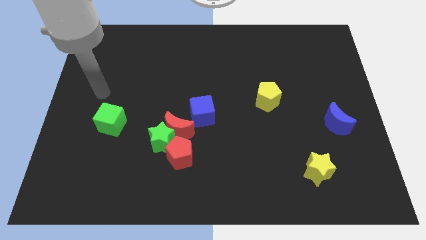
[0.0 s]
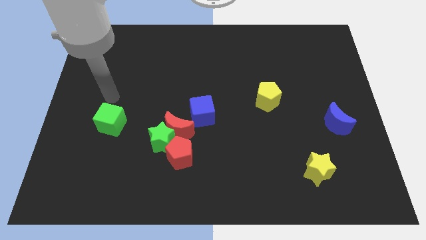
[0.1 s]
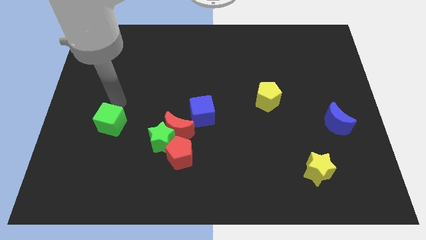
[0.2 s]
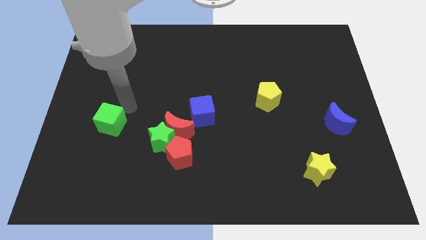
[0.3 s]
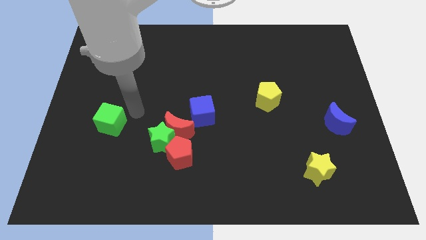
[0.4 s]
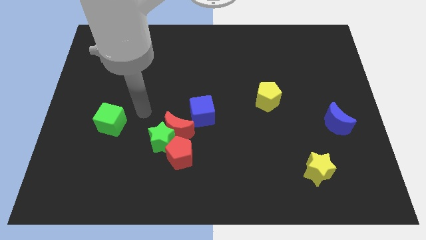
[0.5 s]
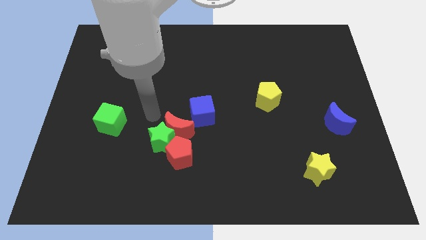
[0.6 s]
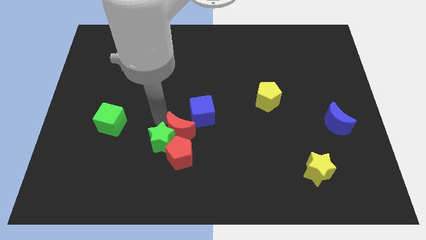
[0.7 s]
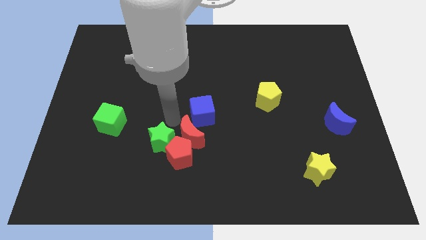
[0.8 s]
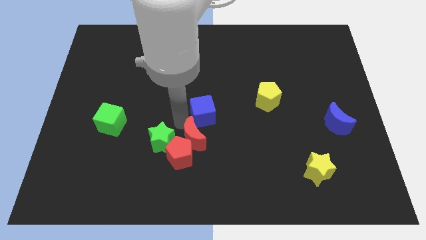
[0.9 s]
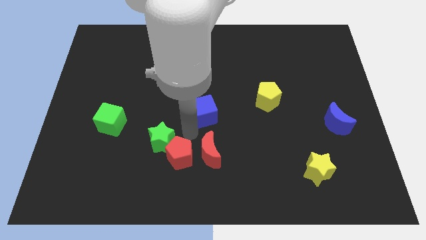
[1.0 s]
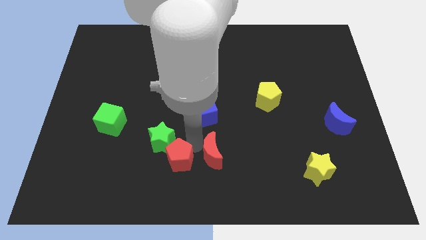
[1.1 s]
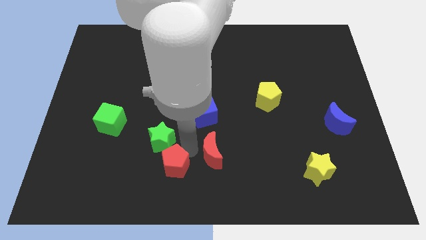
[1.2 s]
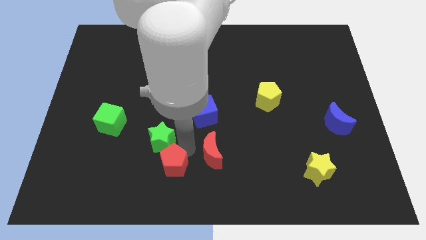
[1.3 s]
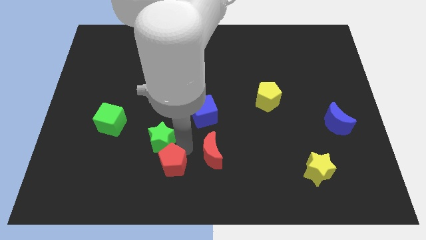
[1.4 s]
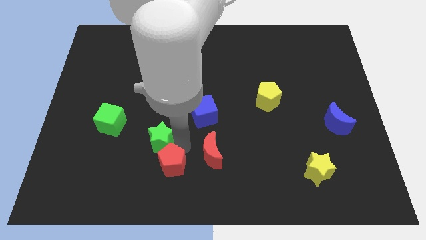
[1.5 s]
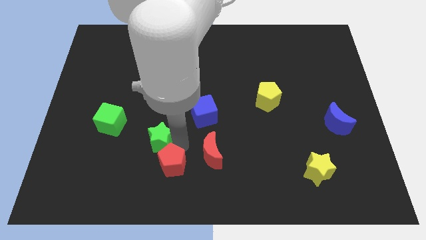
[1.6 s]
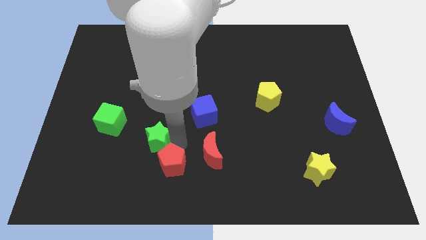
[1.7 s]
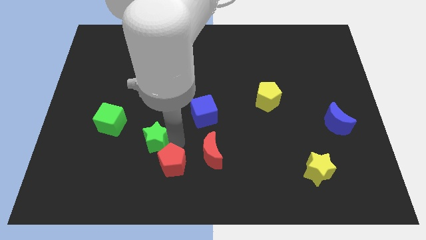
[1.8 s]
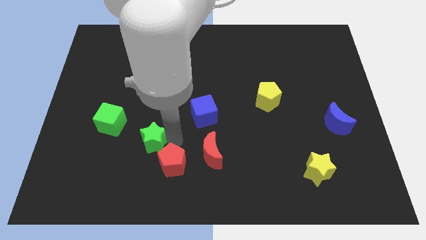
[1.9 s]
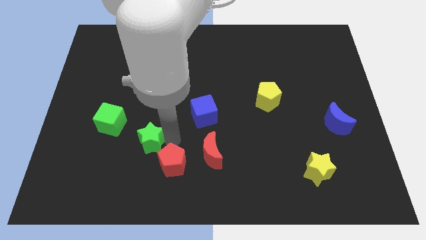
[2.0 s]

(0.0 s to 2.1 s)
separate the green star from the red moon and red pentagon

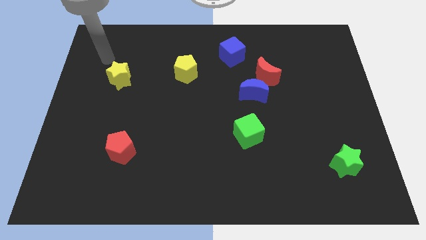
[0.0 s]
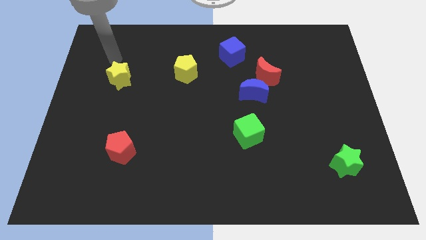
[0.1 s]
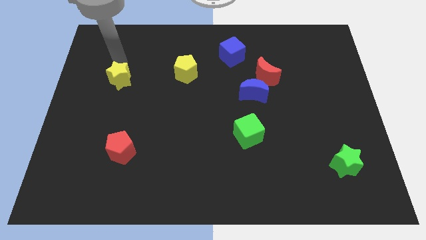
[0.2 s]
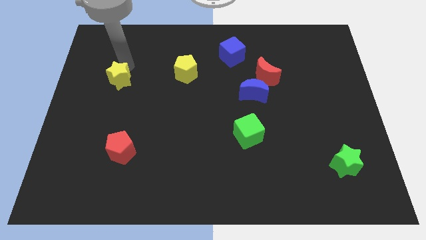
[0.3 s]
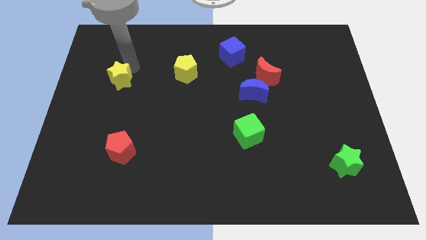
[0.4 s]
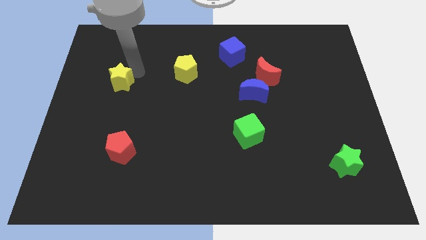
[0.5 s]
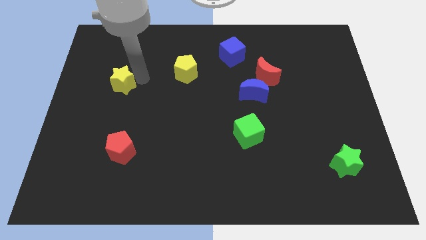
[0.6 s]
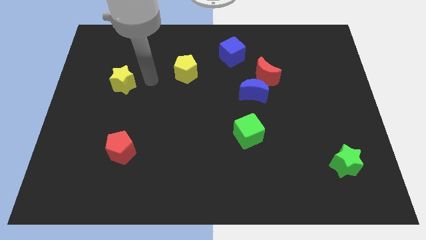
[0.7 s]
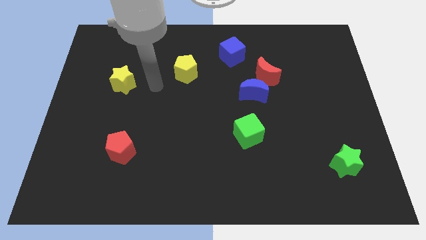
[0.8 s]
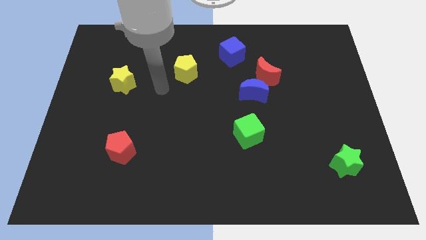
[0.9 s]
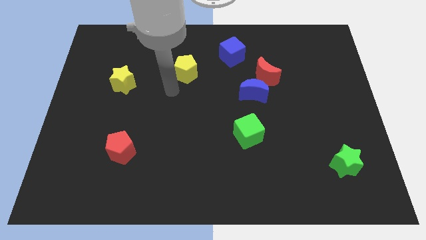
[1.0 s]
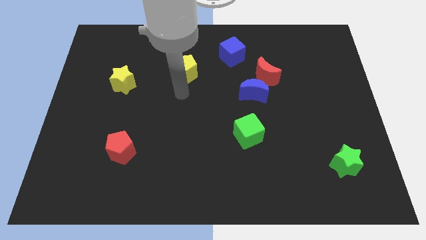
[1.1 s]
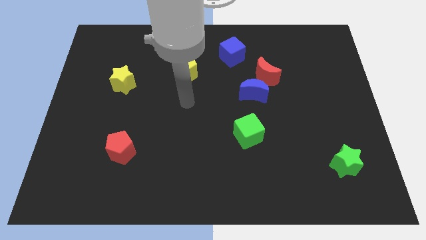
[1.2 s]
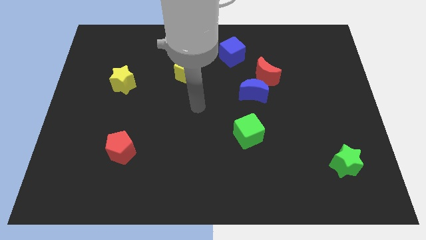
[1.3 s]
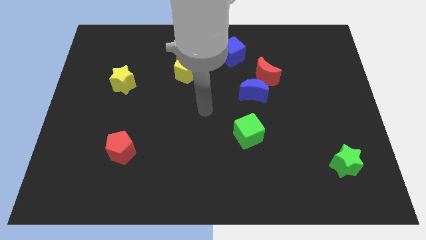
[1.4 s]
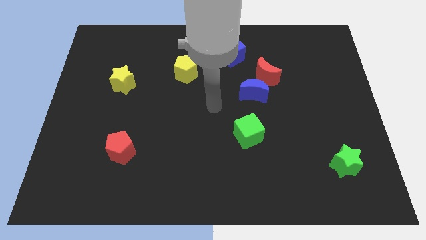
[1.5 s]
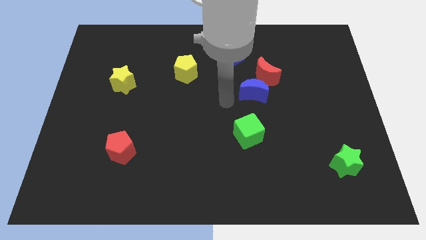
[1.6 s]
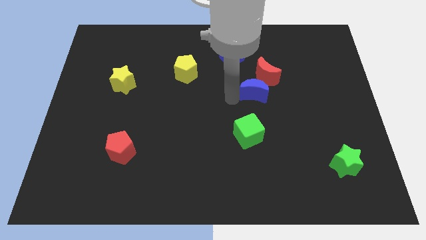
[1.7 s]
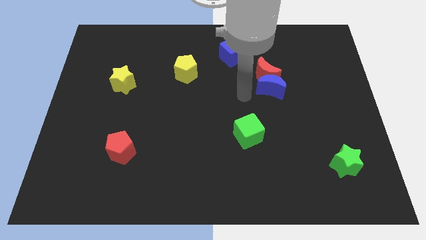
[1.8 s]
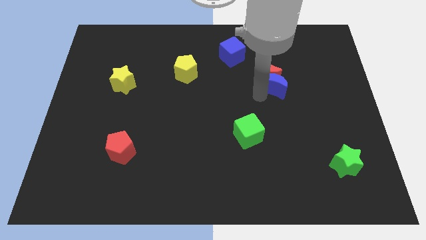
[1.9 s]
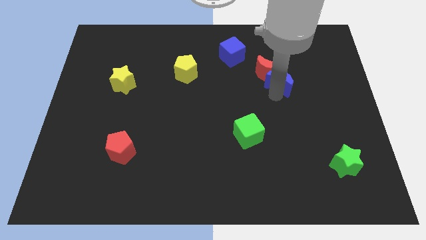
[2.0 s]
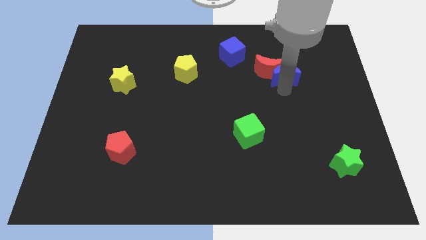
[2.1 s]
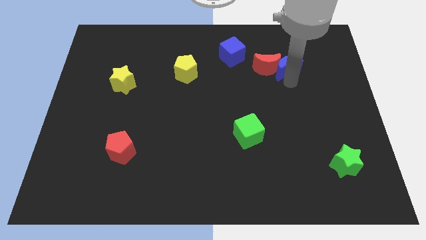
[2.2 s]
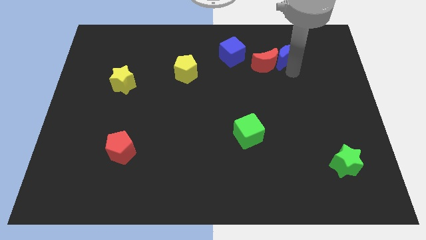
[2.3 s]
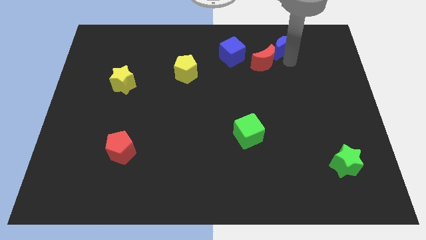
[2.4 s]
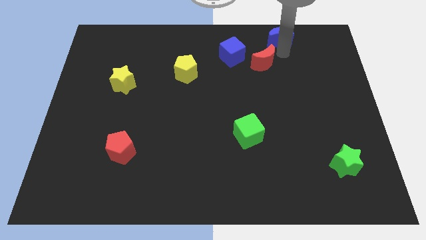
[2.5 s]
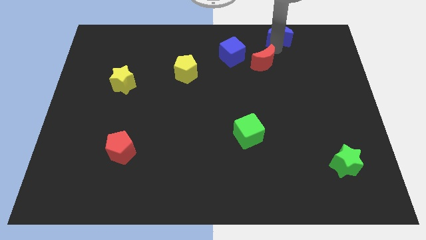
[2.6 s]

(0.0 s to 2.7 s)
separate the red moon from the blue moon

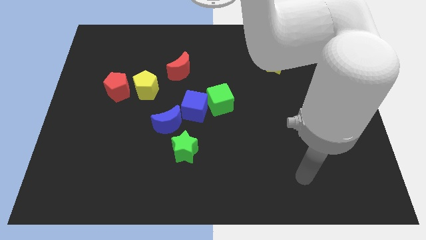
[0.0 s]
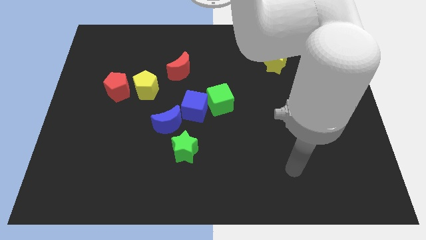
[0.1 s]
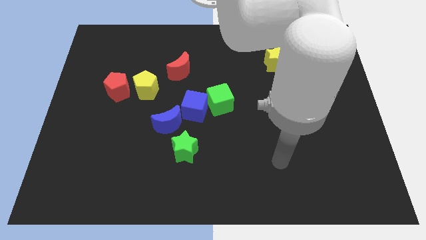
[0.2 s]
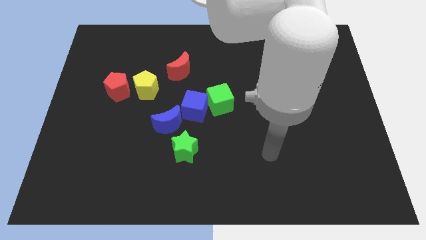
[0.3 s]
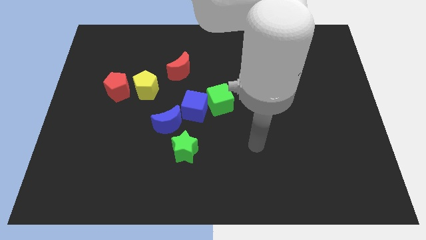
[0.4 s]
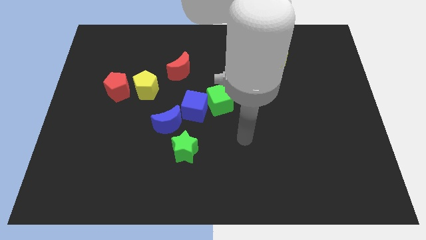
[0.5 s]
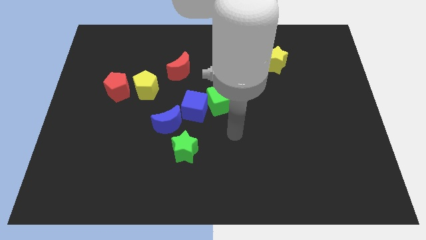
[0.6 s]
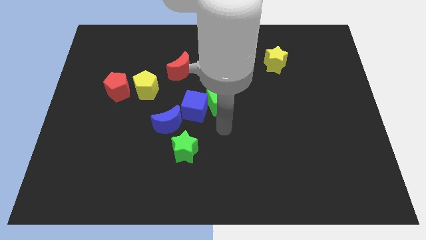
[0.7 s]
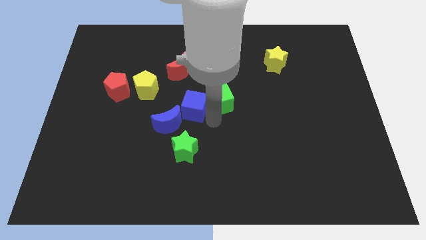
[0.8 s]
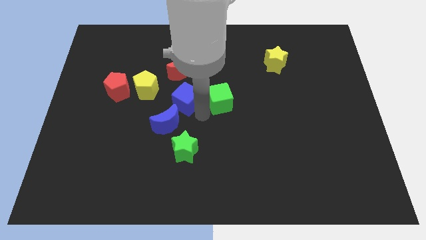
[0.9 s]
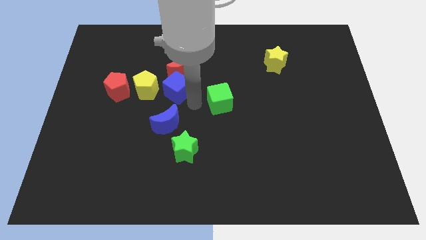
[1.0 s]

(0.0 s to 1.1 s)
separate the green cube from the blue cube

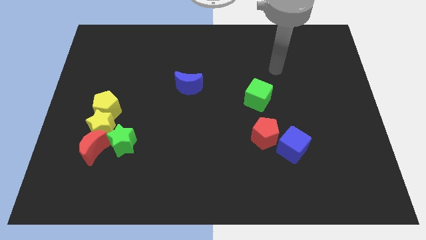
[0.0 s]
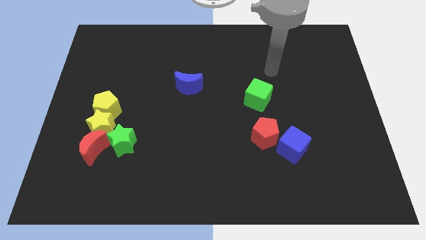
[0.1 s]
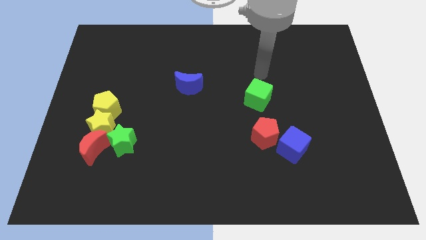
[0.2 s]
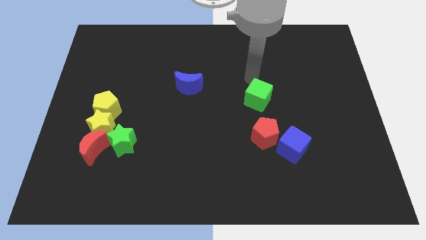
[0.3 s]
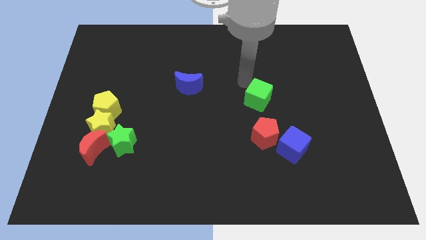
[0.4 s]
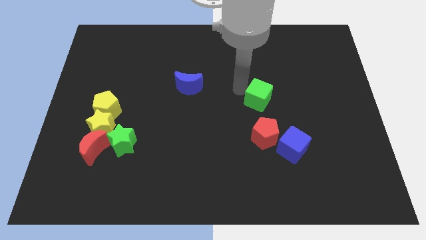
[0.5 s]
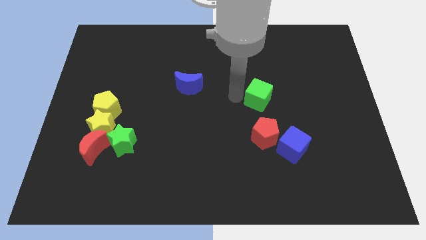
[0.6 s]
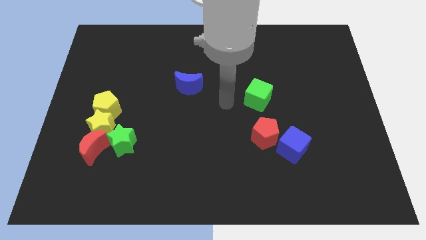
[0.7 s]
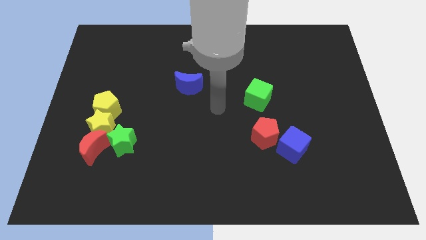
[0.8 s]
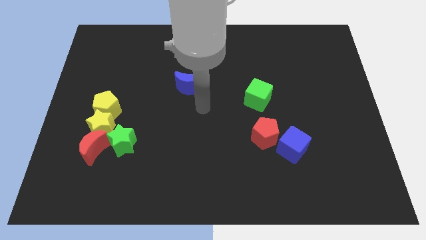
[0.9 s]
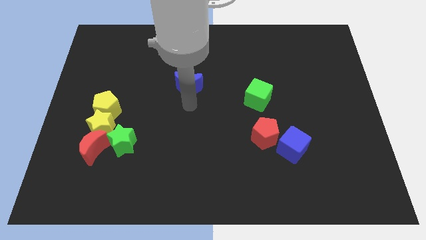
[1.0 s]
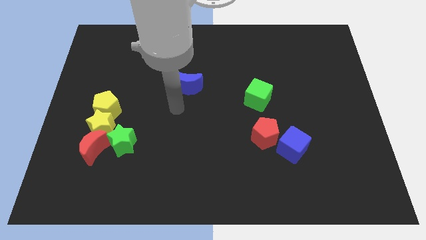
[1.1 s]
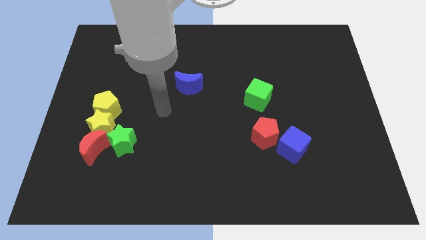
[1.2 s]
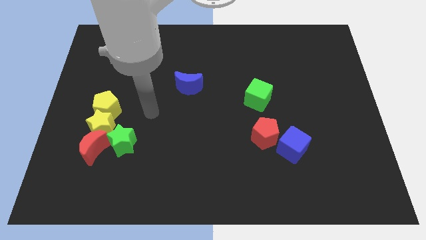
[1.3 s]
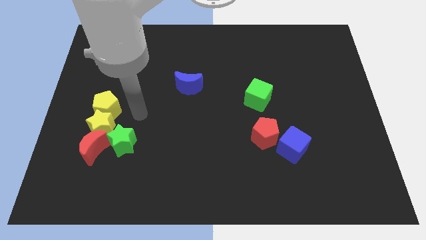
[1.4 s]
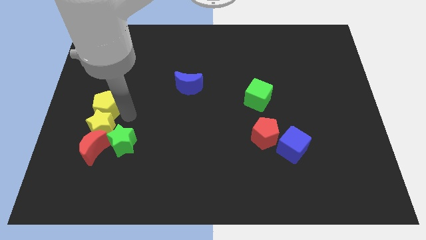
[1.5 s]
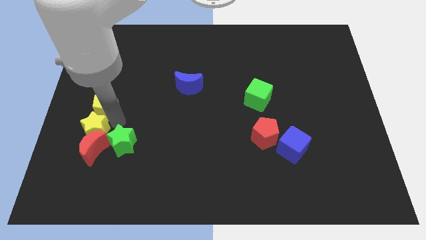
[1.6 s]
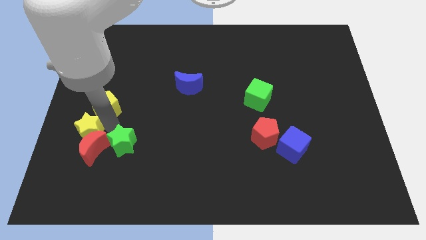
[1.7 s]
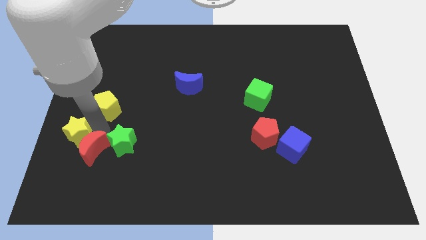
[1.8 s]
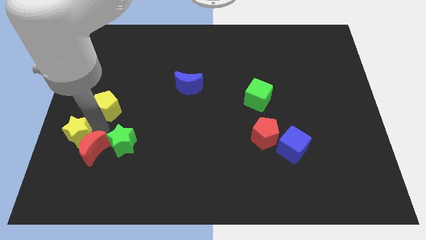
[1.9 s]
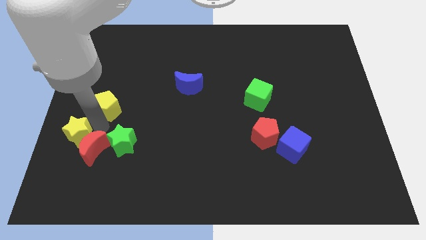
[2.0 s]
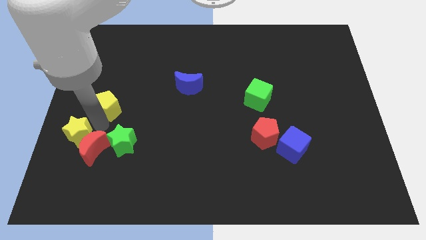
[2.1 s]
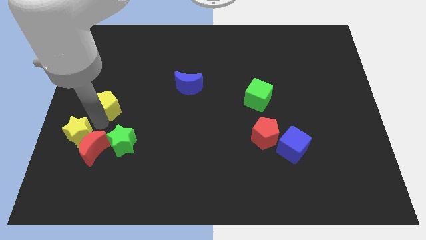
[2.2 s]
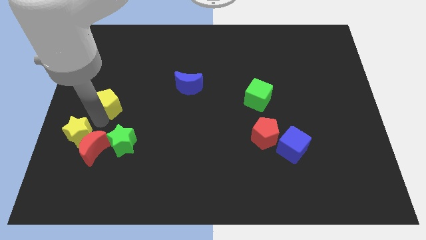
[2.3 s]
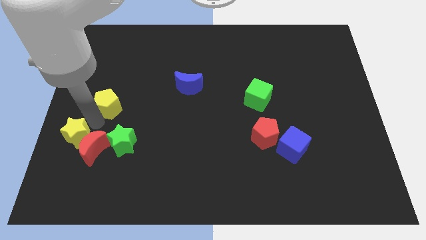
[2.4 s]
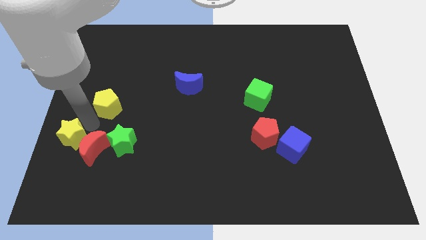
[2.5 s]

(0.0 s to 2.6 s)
pull the yellow pentagon apart from the yellow star

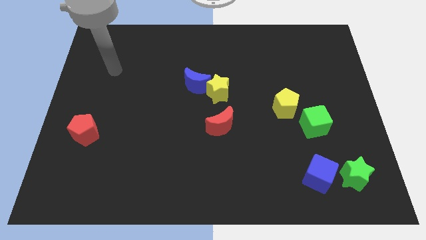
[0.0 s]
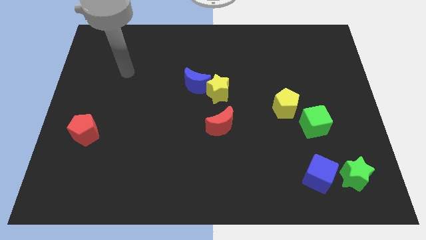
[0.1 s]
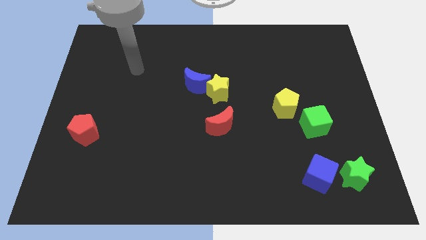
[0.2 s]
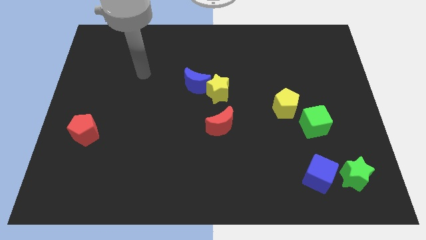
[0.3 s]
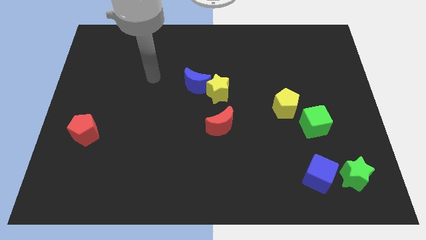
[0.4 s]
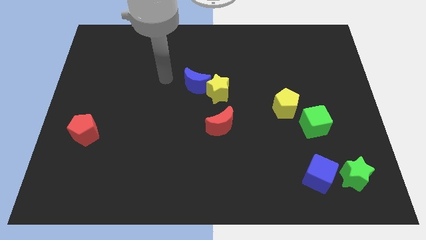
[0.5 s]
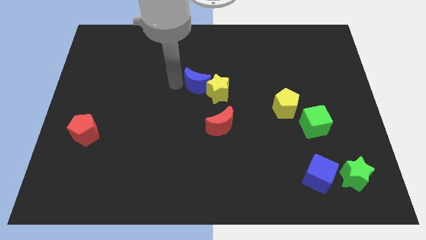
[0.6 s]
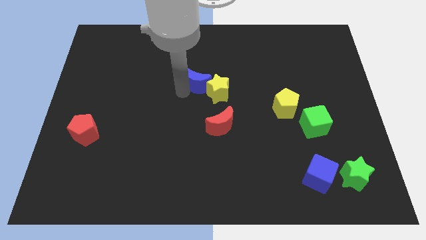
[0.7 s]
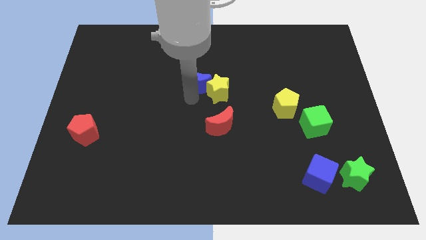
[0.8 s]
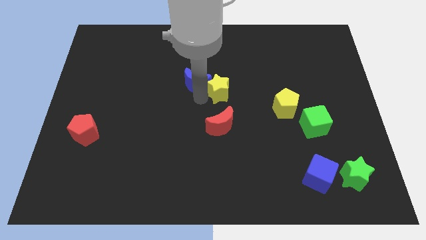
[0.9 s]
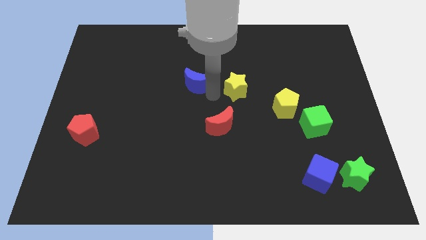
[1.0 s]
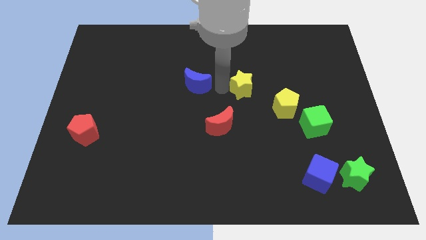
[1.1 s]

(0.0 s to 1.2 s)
pull the blue moon apart from the yellow star
